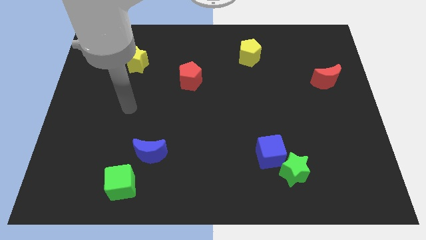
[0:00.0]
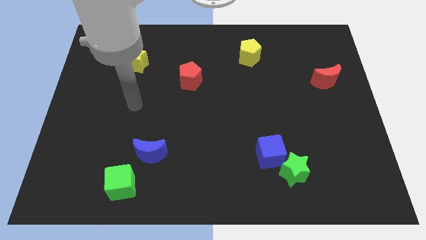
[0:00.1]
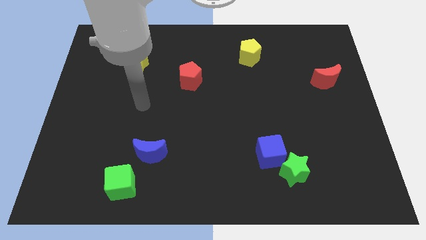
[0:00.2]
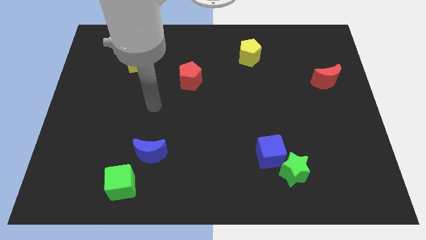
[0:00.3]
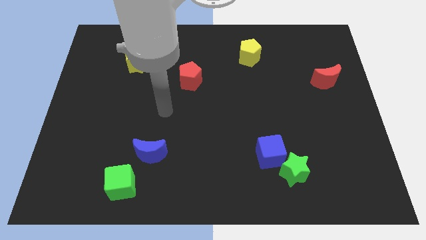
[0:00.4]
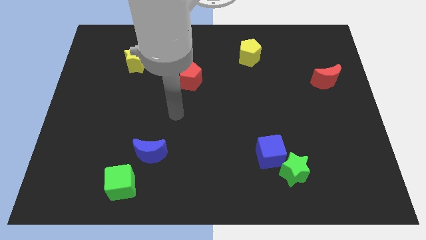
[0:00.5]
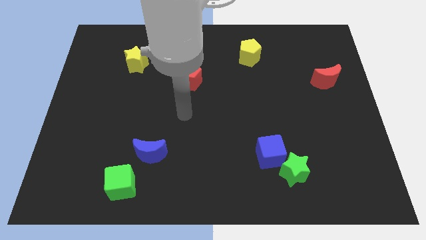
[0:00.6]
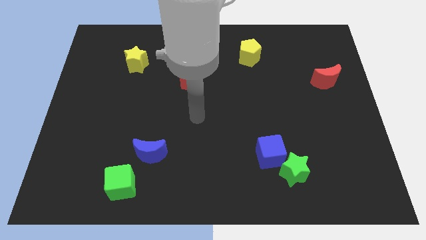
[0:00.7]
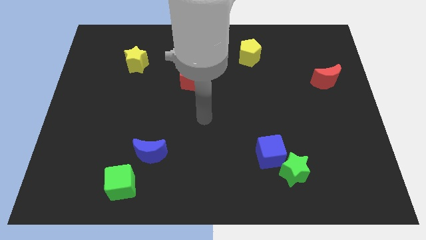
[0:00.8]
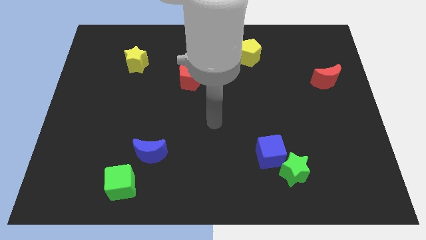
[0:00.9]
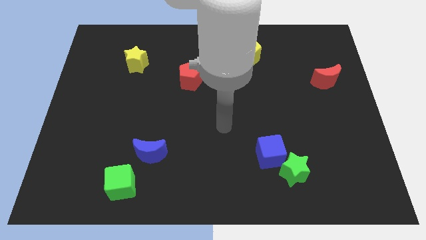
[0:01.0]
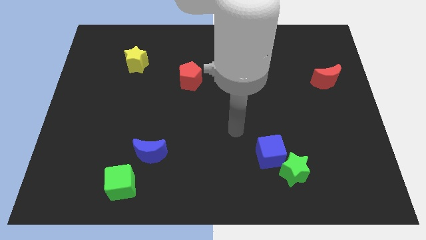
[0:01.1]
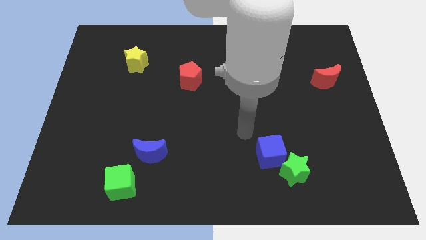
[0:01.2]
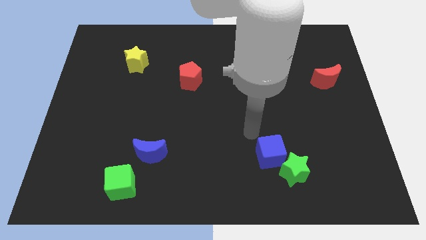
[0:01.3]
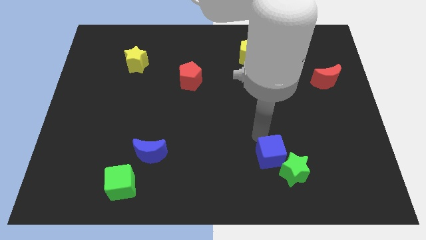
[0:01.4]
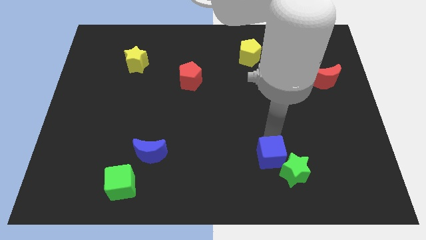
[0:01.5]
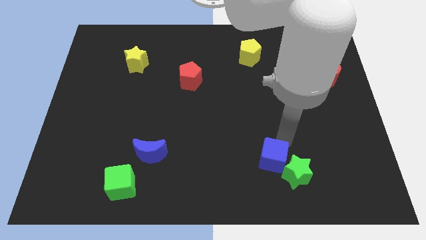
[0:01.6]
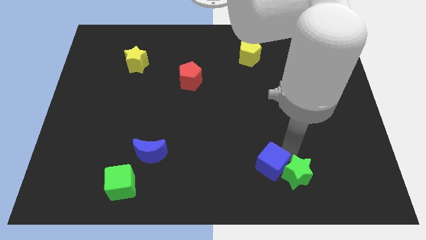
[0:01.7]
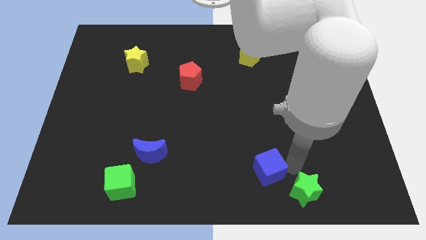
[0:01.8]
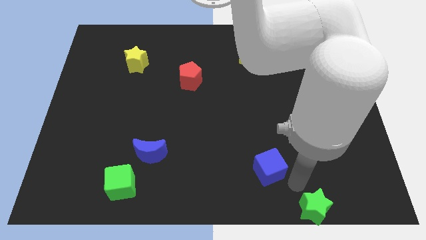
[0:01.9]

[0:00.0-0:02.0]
separate the blue cube from the green star

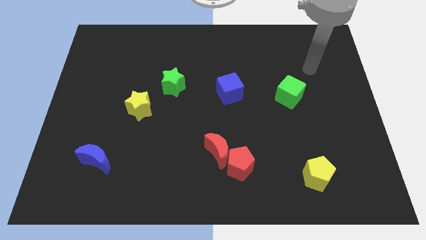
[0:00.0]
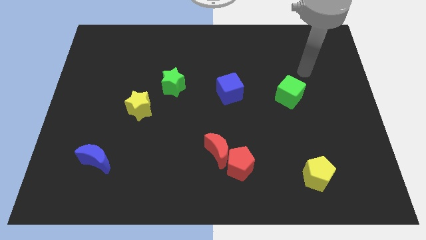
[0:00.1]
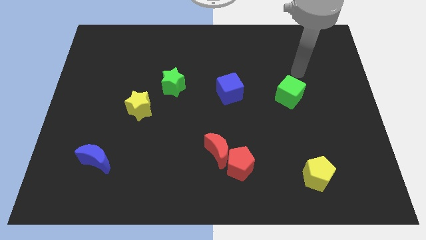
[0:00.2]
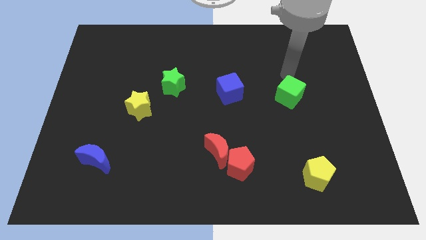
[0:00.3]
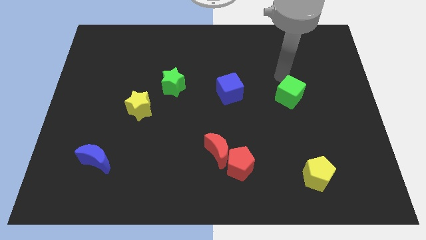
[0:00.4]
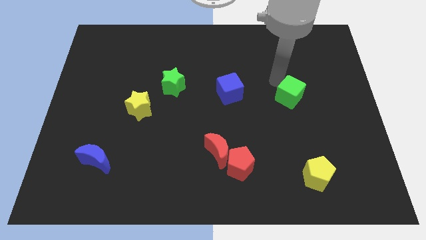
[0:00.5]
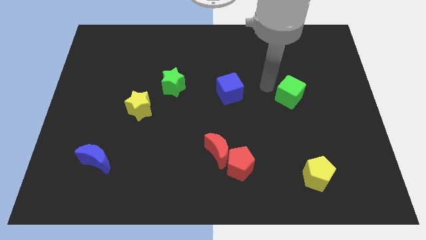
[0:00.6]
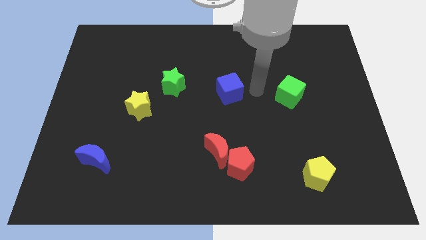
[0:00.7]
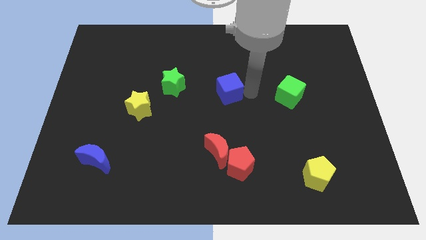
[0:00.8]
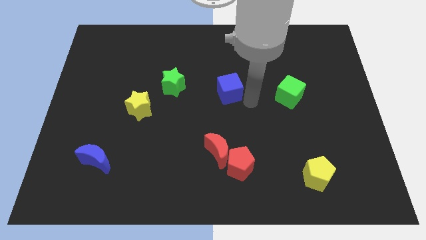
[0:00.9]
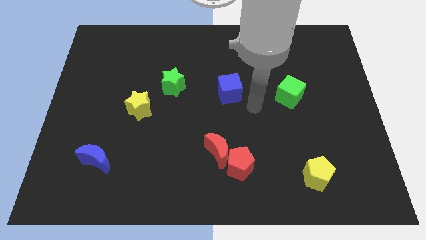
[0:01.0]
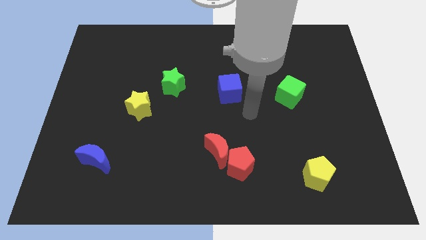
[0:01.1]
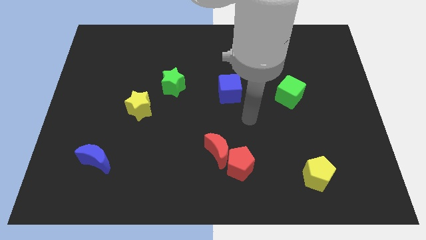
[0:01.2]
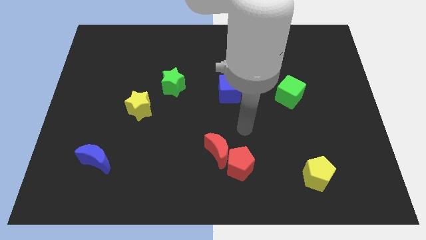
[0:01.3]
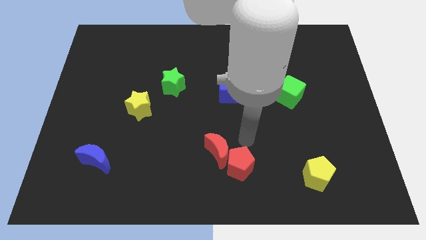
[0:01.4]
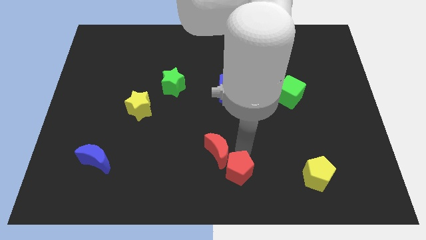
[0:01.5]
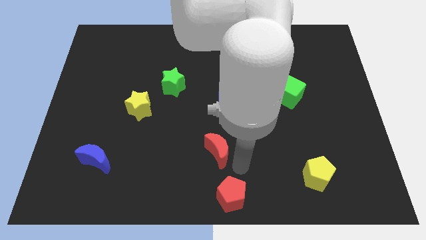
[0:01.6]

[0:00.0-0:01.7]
move the red moon away from the red pentagon

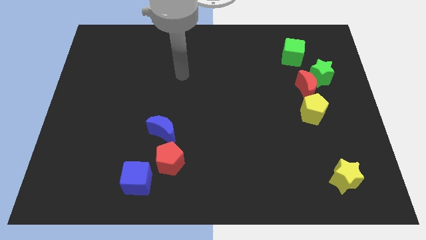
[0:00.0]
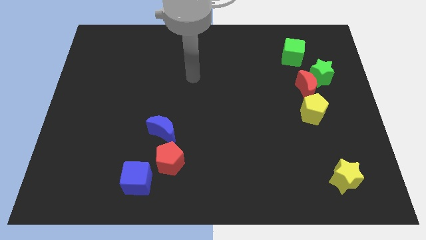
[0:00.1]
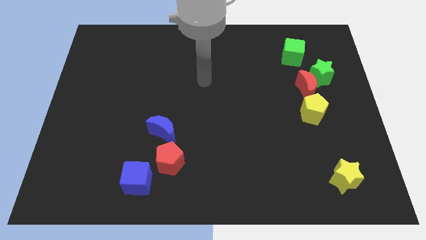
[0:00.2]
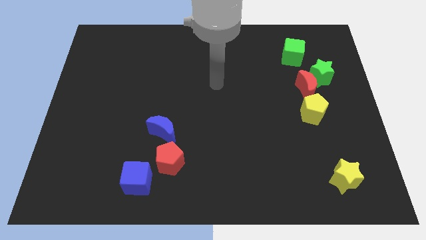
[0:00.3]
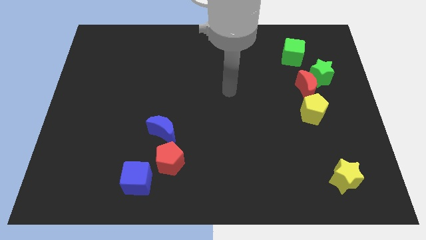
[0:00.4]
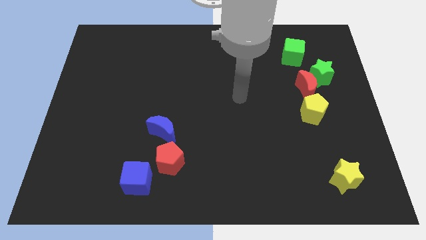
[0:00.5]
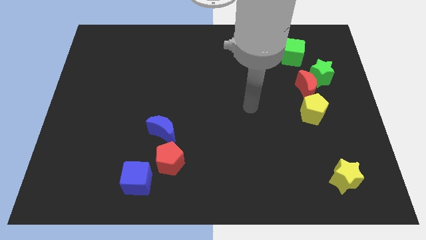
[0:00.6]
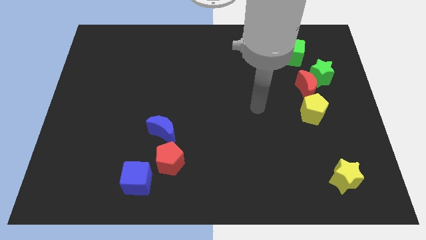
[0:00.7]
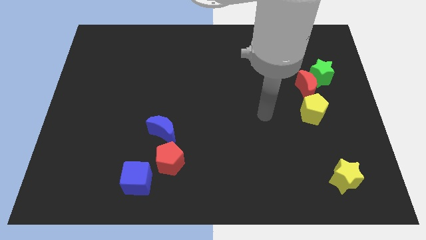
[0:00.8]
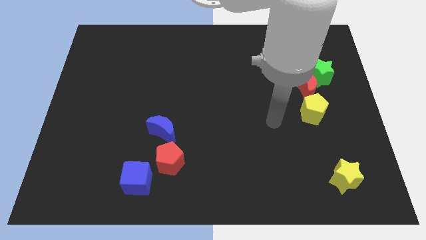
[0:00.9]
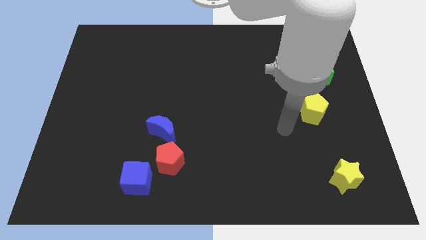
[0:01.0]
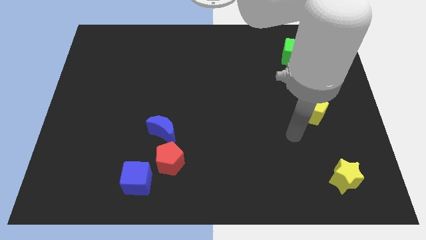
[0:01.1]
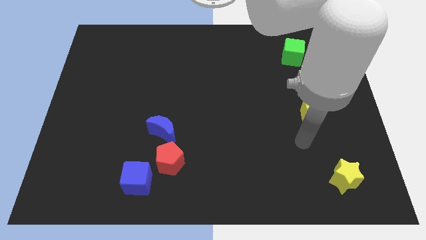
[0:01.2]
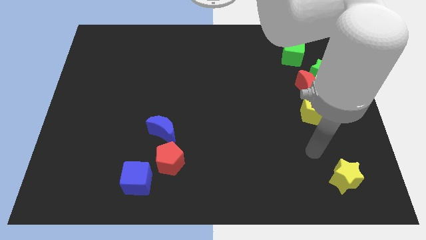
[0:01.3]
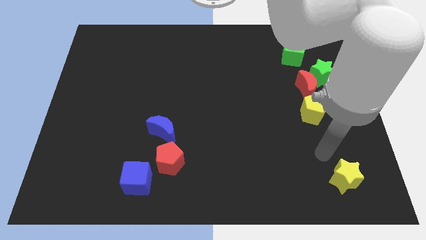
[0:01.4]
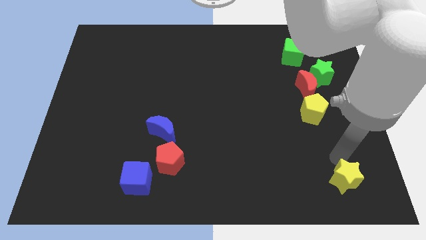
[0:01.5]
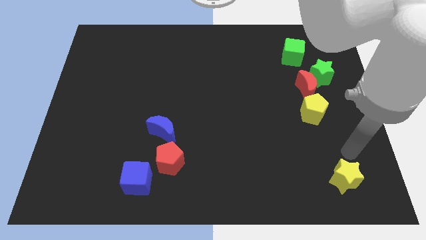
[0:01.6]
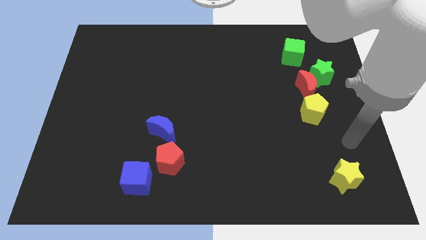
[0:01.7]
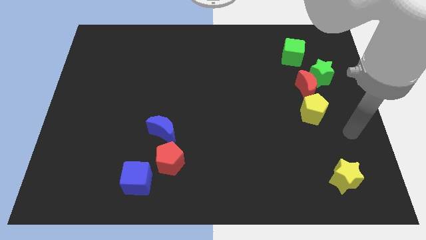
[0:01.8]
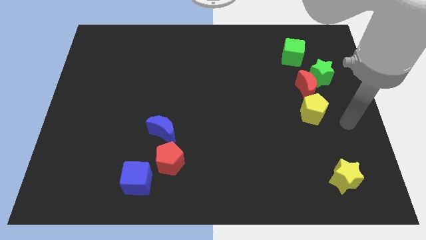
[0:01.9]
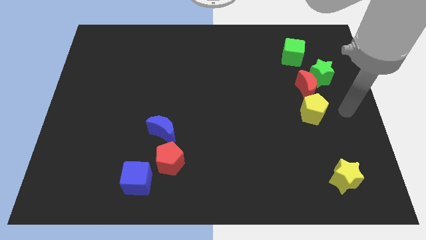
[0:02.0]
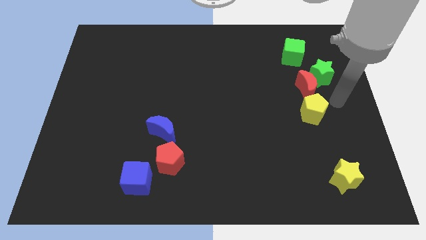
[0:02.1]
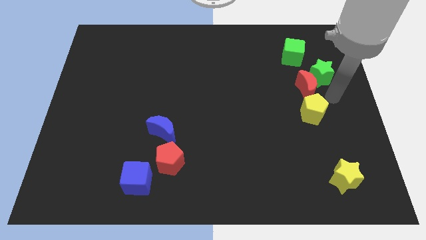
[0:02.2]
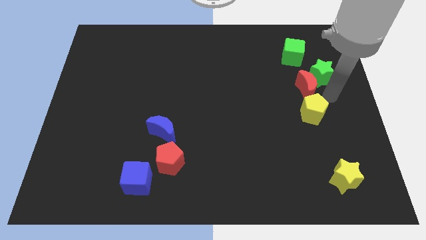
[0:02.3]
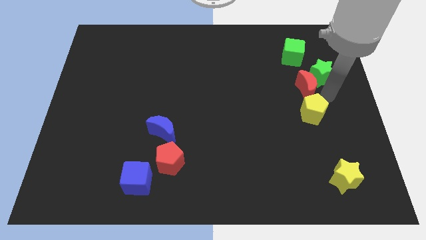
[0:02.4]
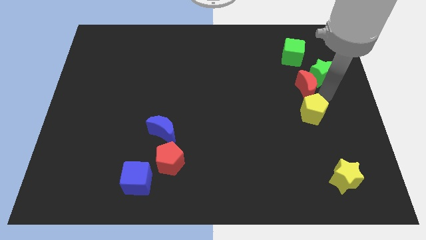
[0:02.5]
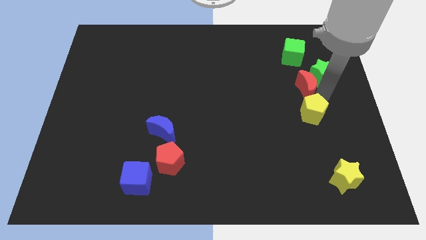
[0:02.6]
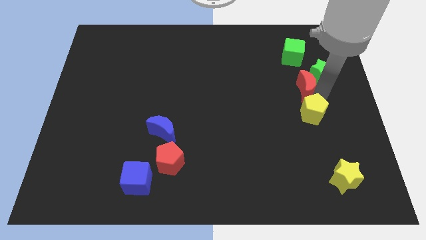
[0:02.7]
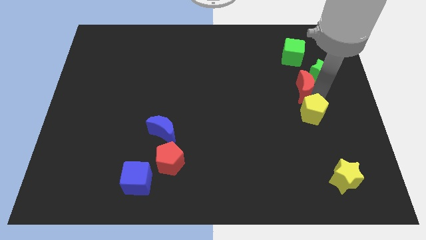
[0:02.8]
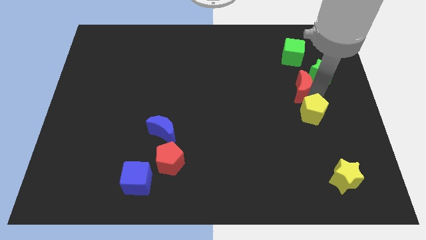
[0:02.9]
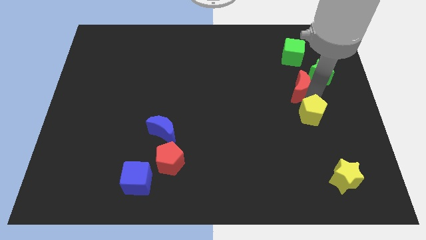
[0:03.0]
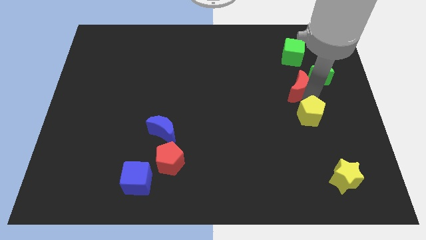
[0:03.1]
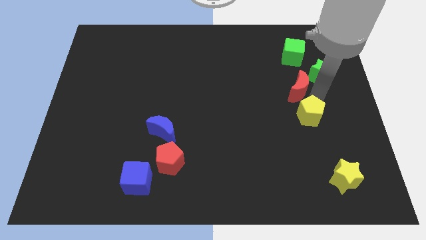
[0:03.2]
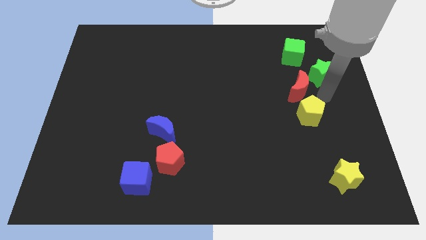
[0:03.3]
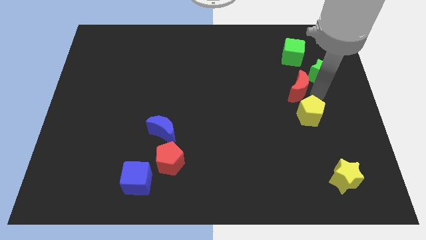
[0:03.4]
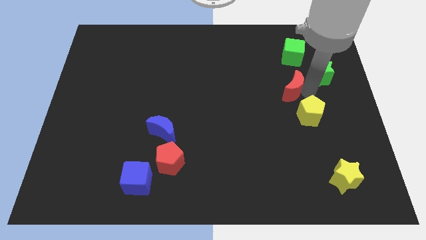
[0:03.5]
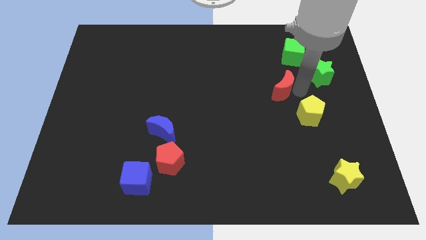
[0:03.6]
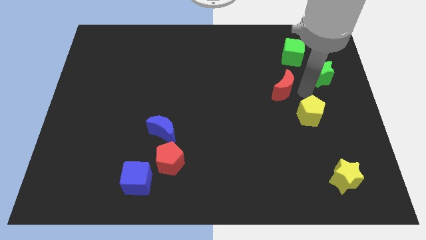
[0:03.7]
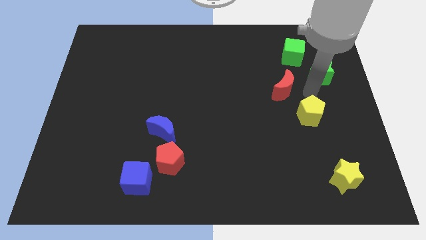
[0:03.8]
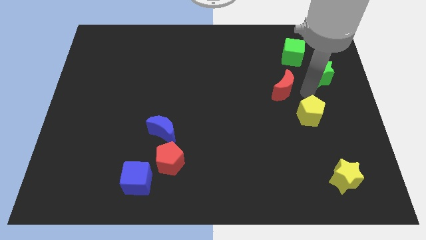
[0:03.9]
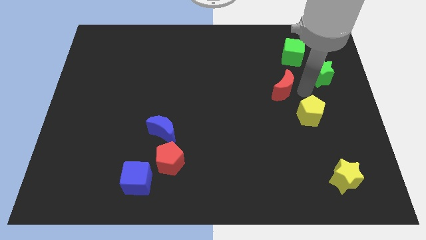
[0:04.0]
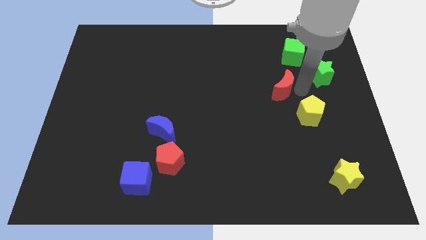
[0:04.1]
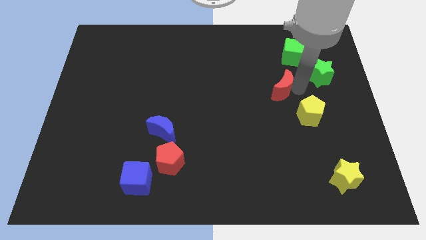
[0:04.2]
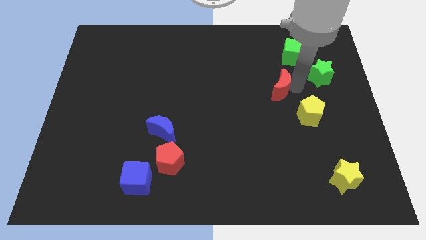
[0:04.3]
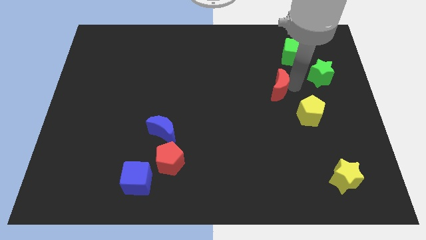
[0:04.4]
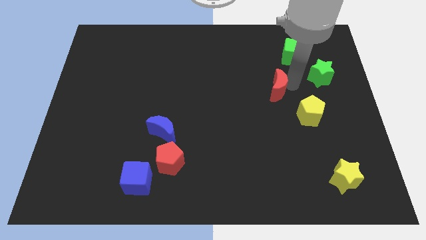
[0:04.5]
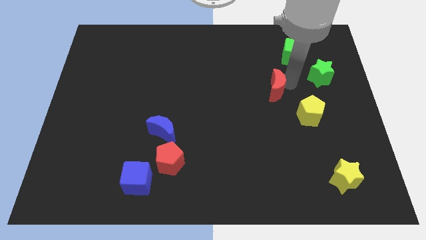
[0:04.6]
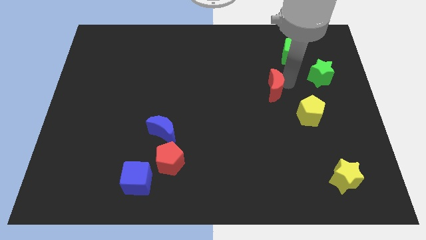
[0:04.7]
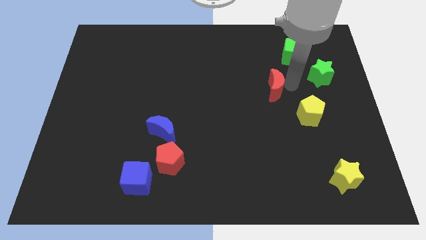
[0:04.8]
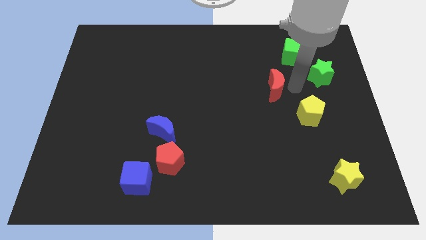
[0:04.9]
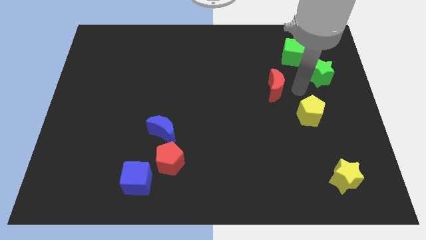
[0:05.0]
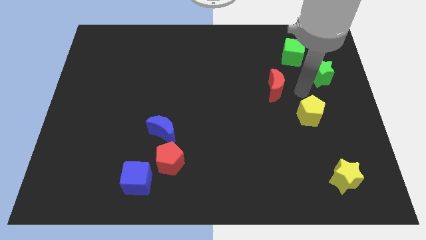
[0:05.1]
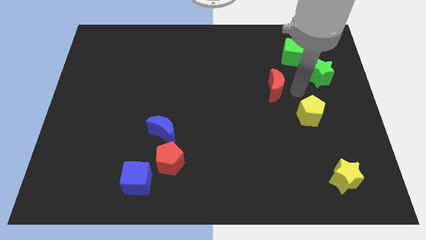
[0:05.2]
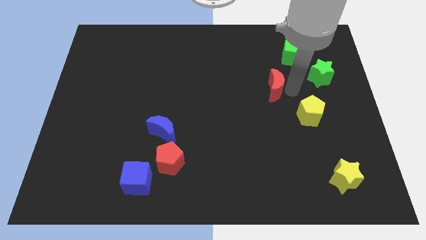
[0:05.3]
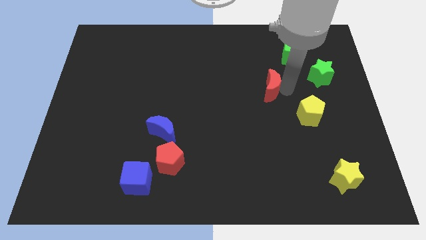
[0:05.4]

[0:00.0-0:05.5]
pull the red moon apart from the green star and yellow pentagon

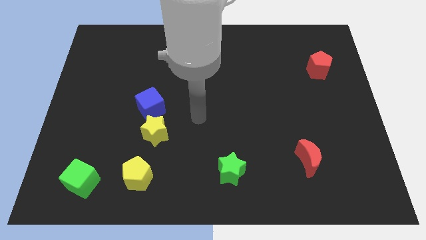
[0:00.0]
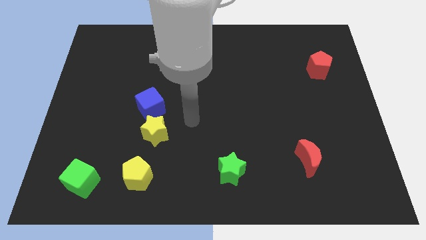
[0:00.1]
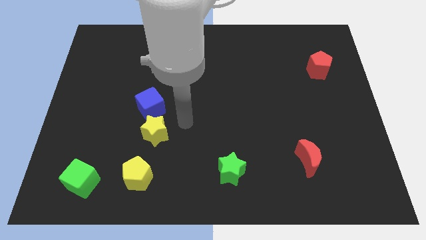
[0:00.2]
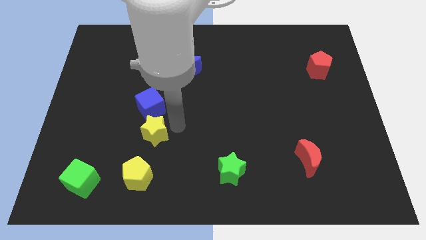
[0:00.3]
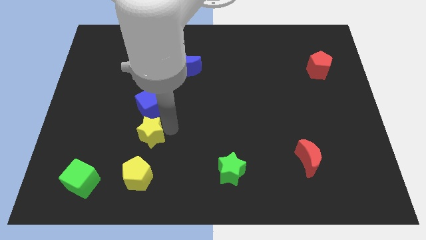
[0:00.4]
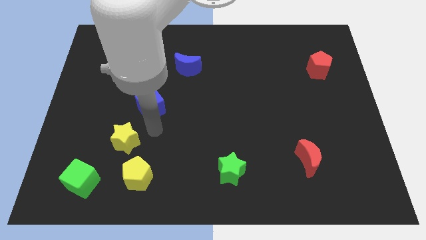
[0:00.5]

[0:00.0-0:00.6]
move the blue cube away from the yellow star
